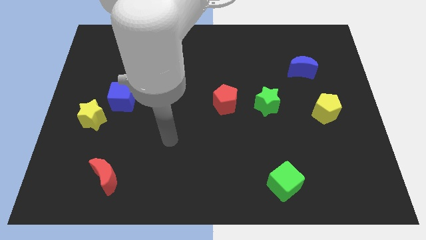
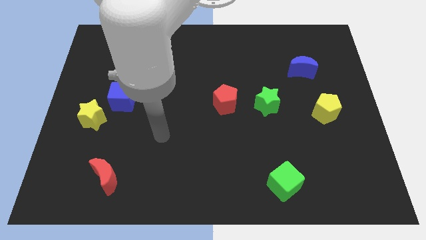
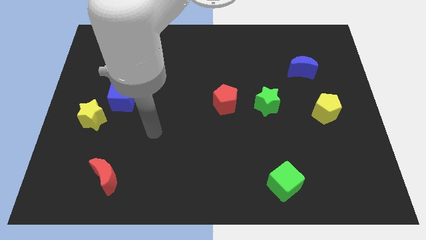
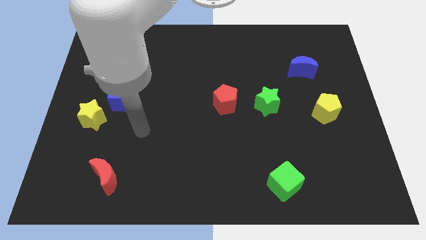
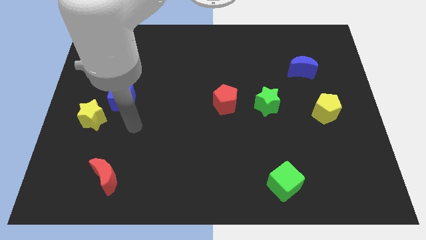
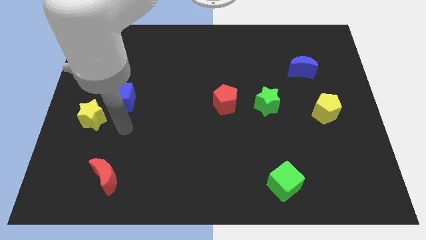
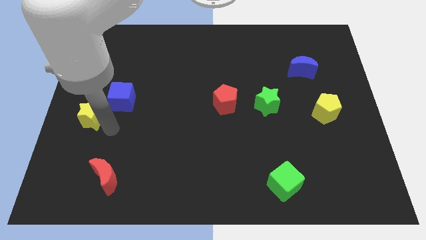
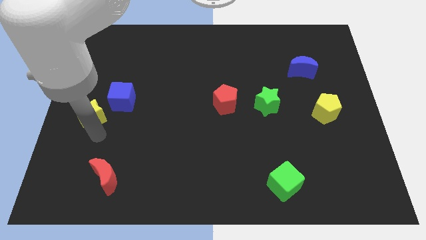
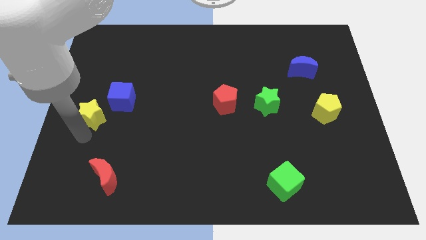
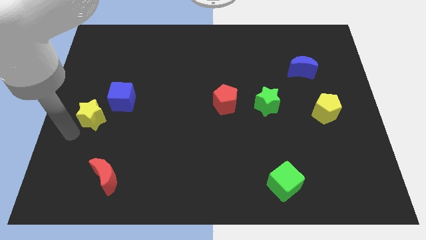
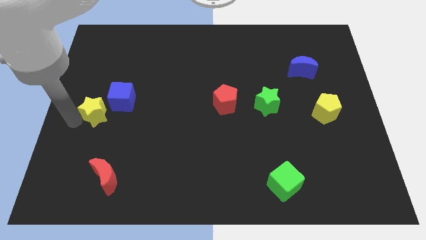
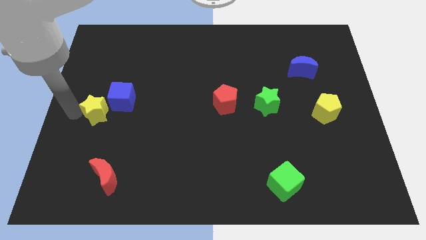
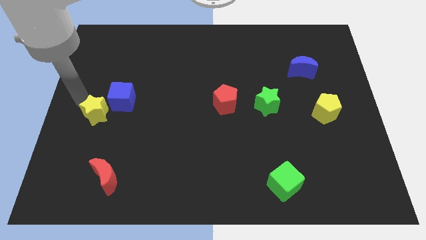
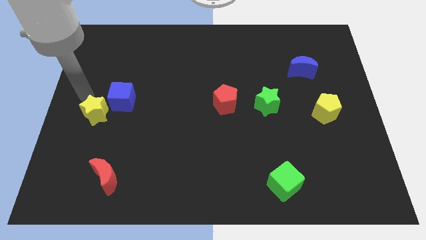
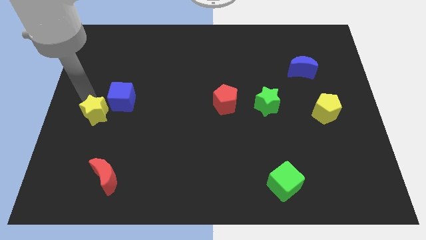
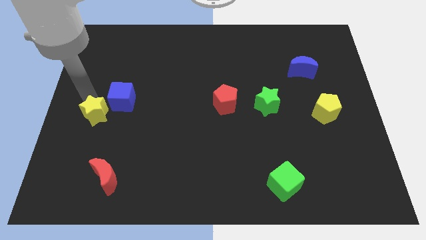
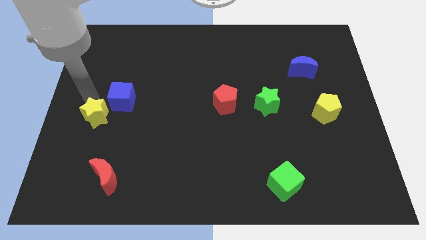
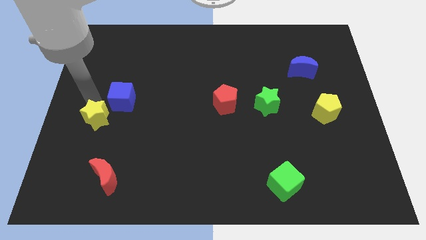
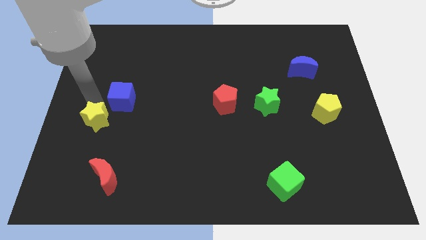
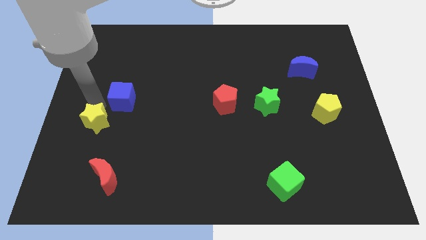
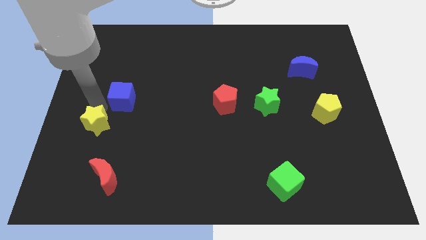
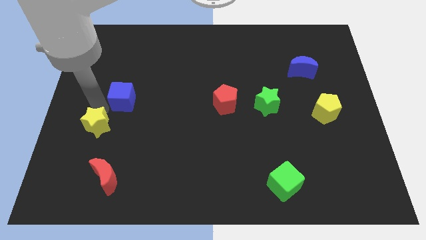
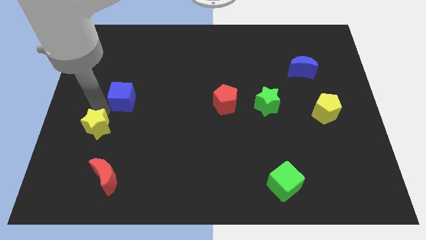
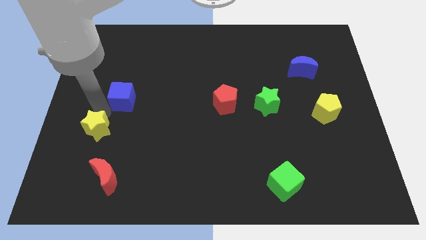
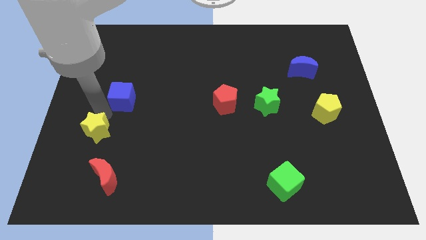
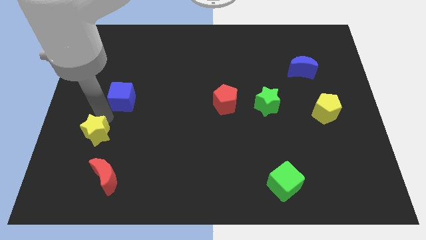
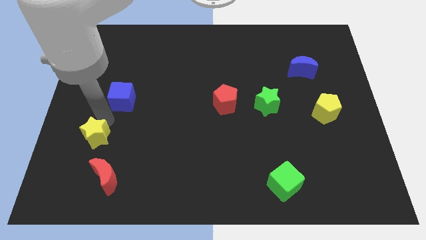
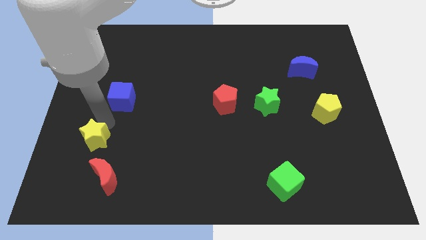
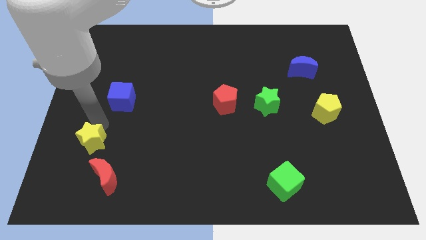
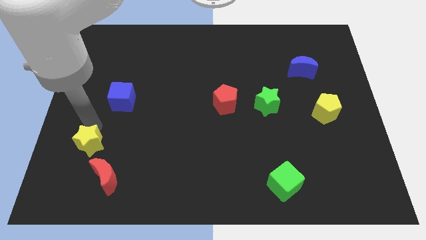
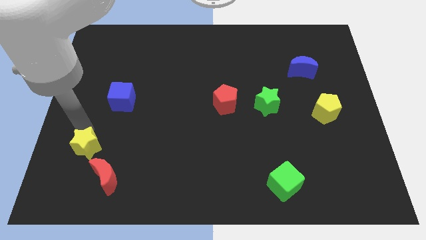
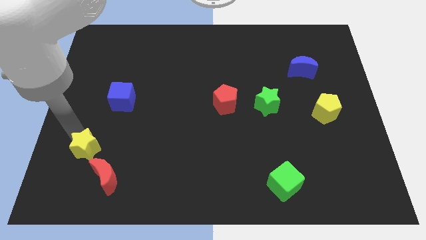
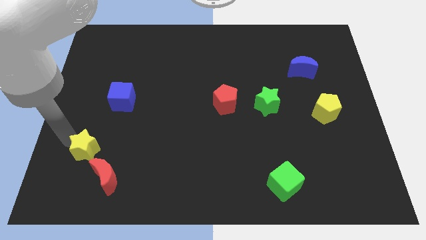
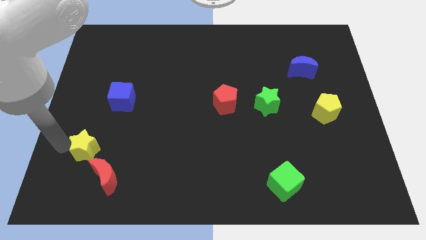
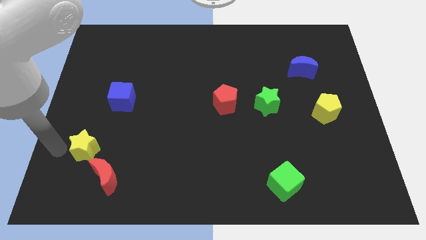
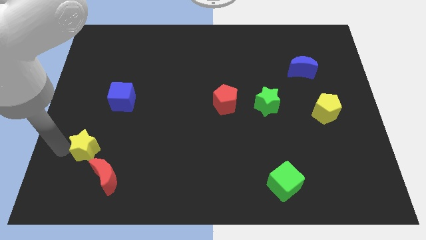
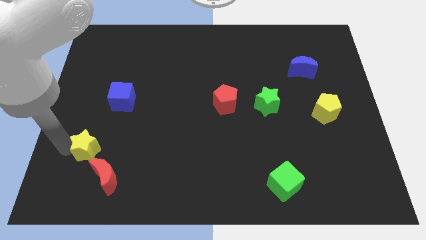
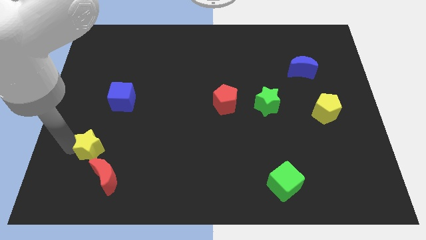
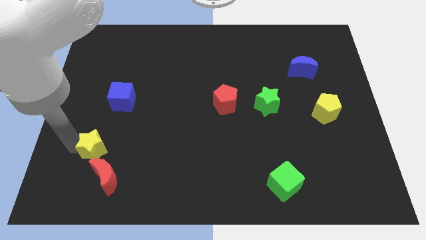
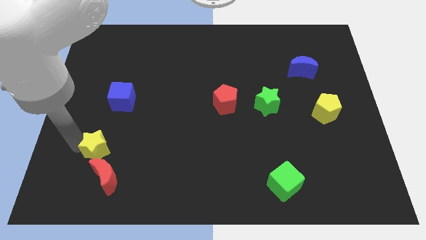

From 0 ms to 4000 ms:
slide the yellow star down and to the right slightly

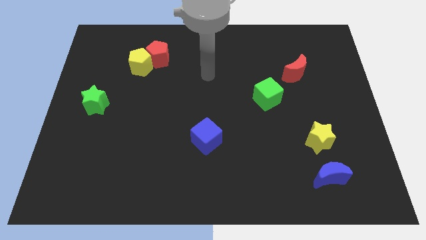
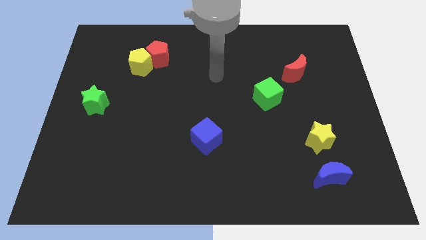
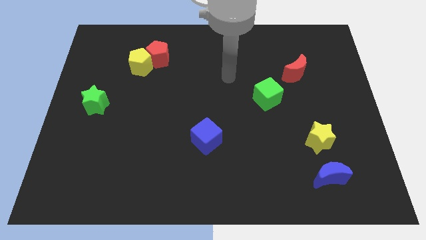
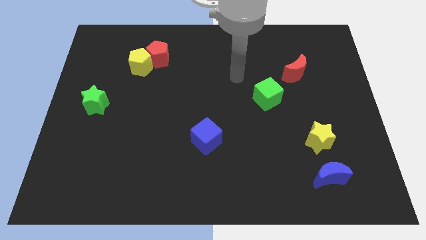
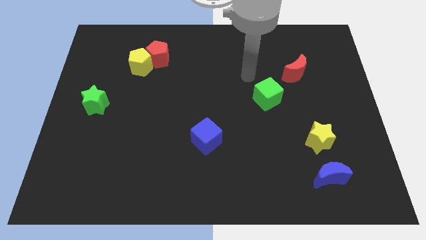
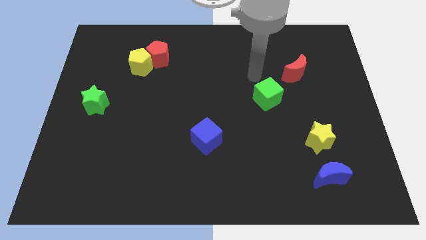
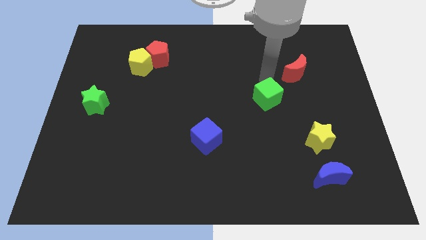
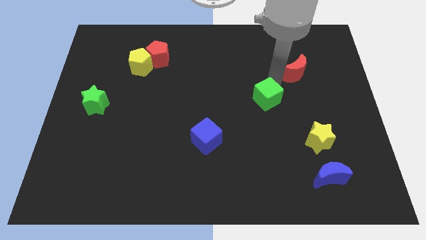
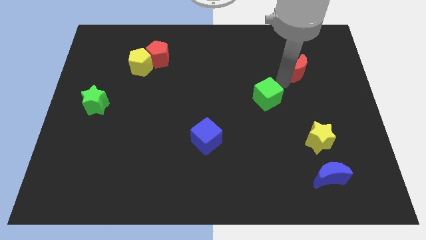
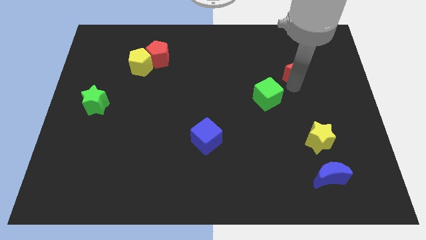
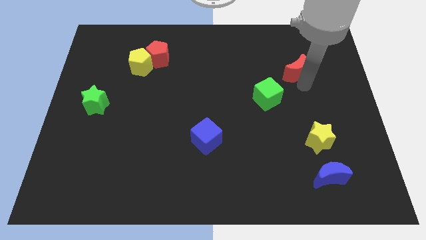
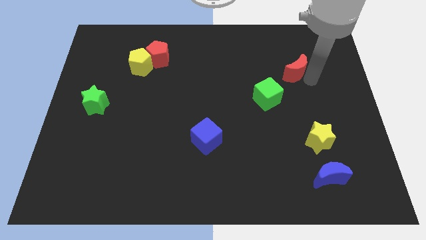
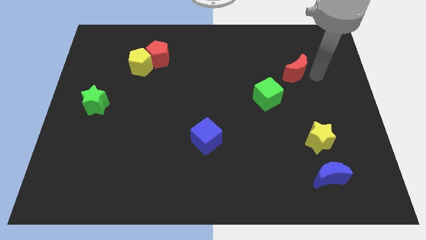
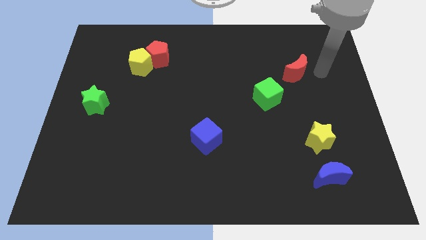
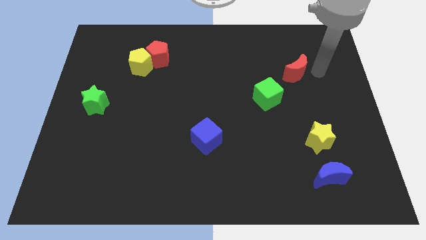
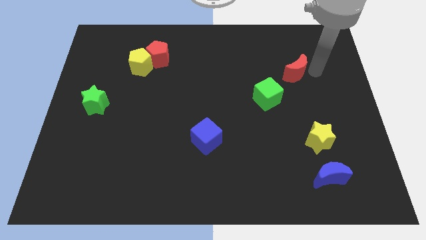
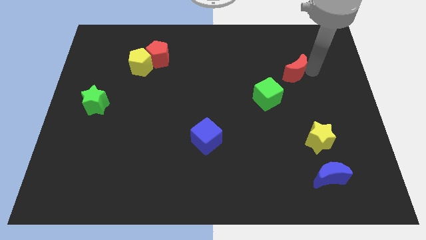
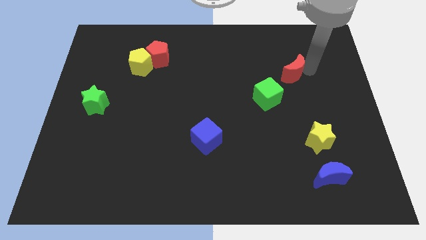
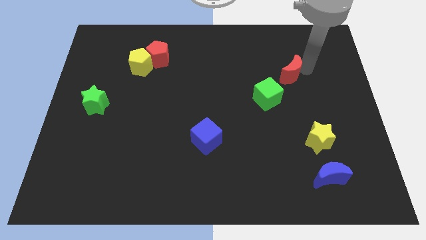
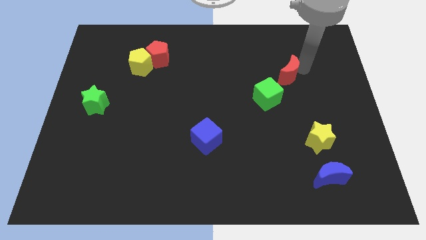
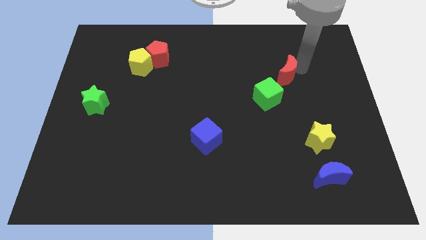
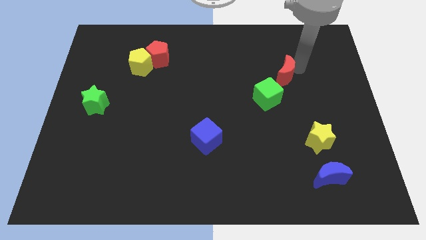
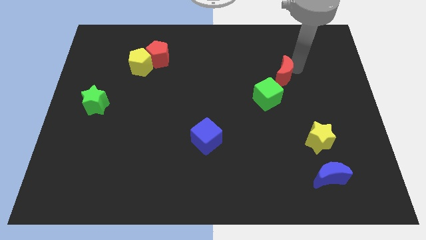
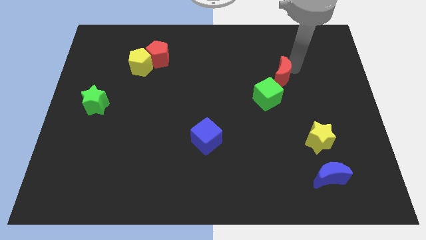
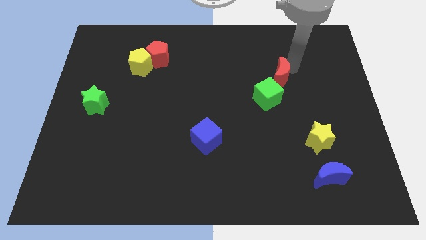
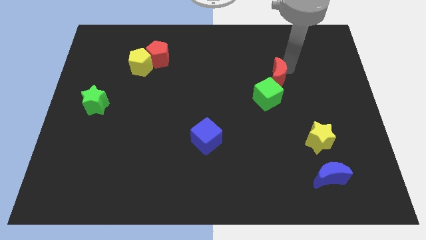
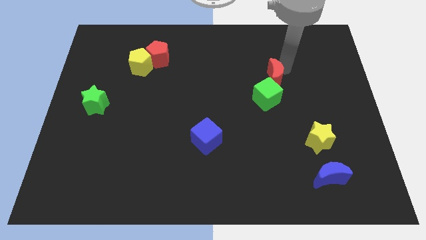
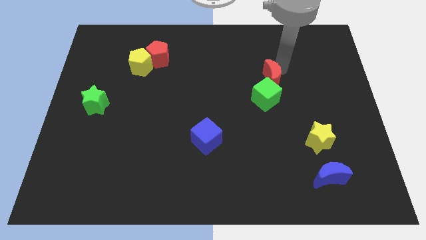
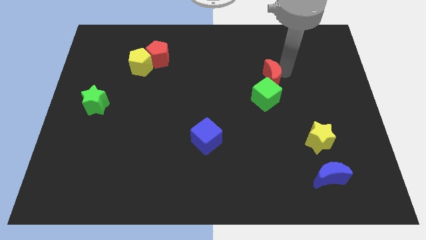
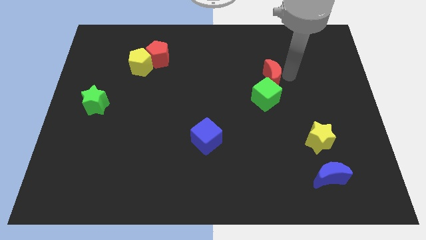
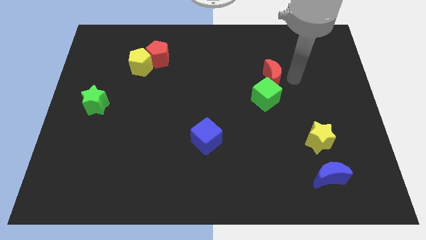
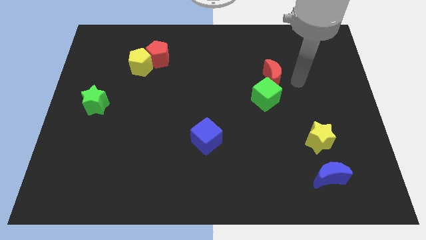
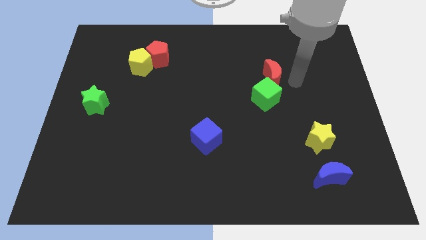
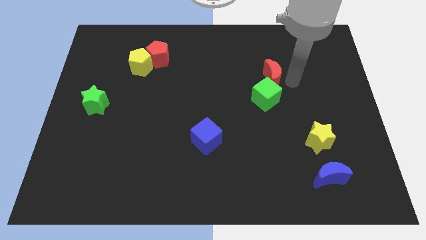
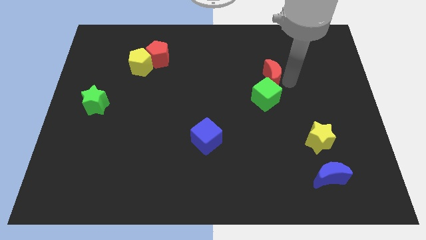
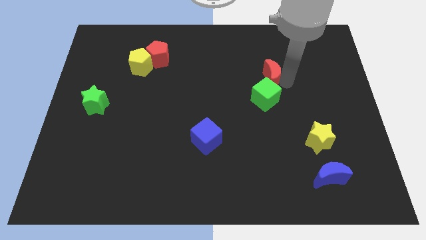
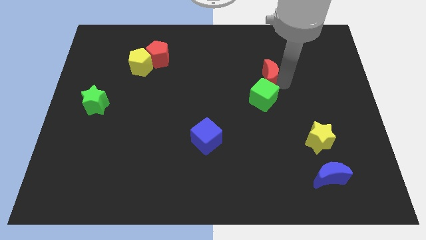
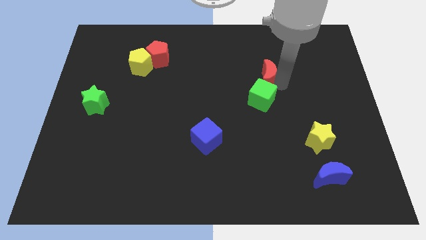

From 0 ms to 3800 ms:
slightly move the red moon to the left
